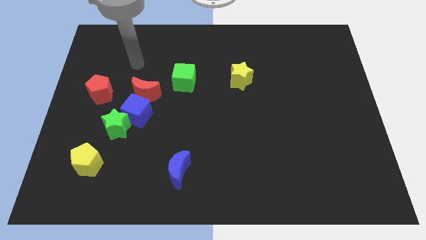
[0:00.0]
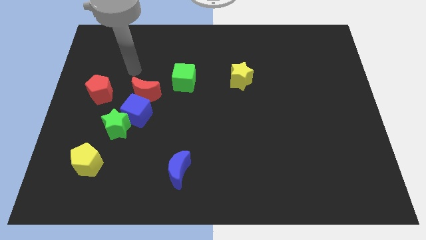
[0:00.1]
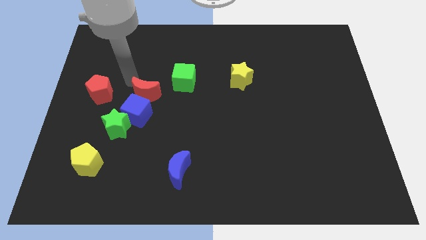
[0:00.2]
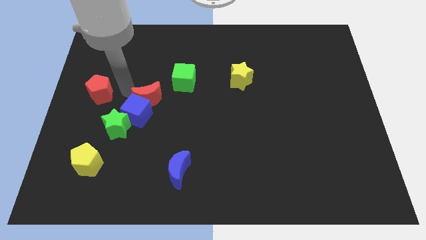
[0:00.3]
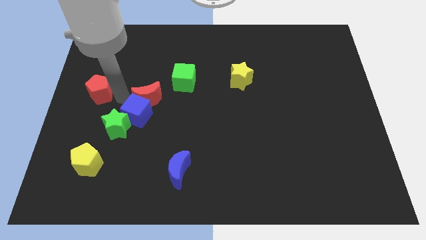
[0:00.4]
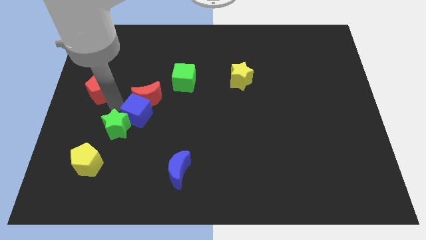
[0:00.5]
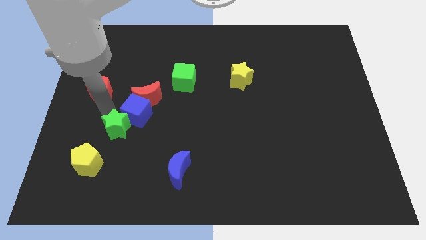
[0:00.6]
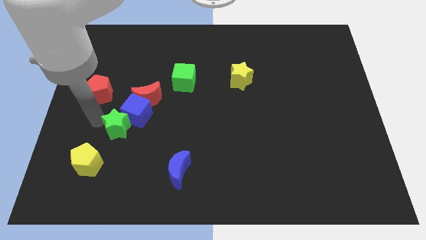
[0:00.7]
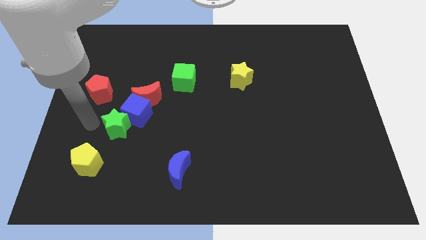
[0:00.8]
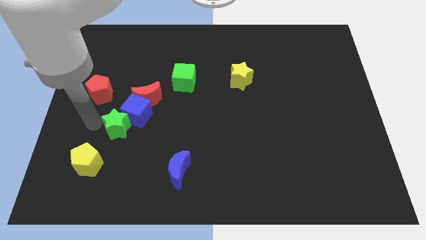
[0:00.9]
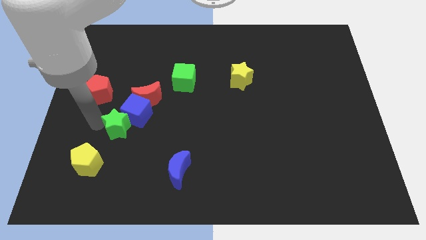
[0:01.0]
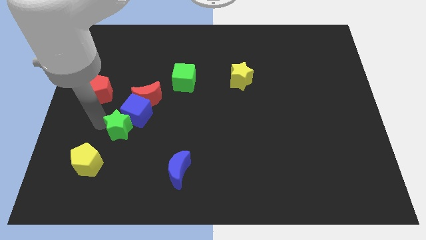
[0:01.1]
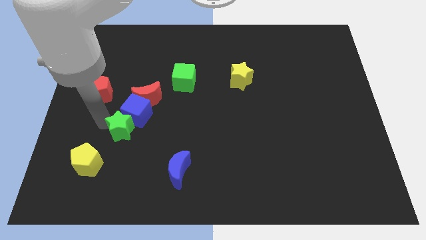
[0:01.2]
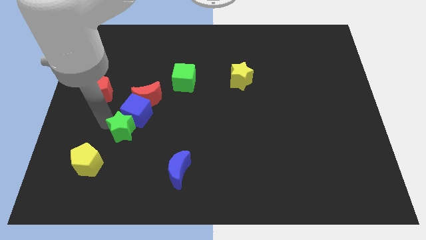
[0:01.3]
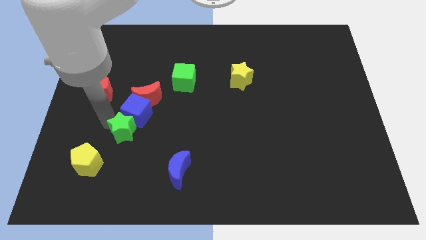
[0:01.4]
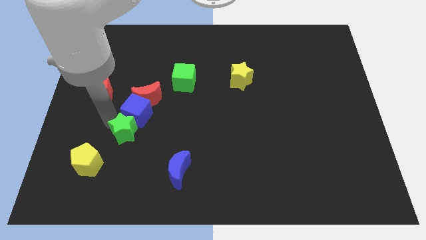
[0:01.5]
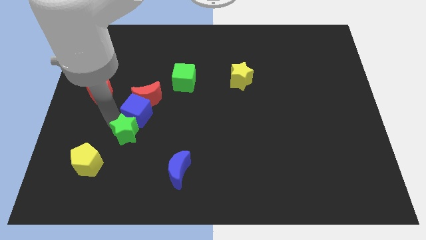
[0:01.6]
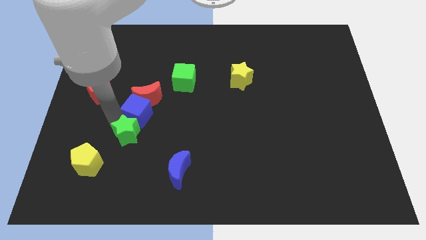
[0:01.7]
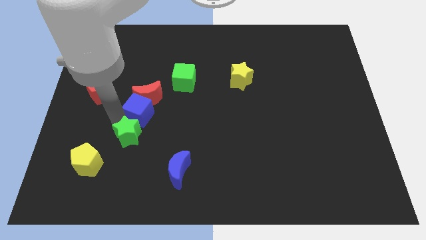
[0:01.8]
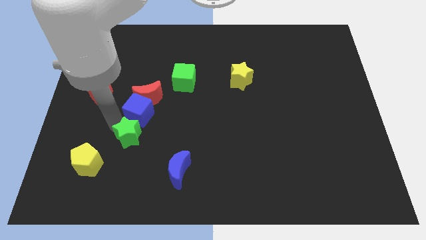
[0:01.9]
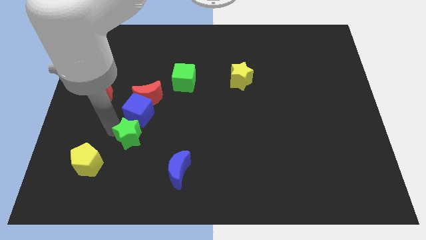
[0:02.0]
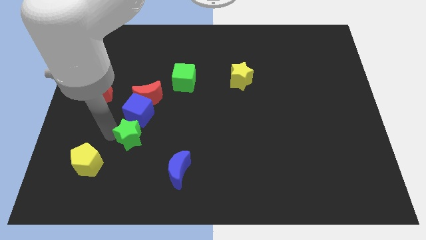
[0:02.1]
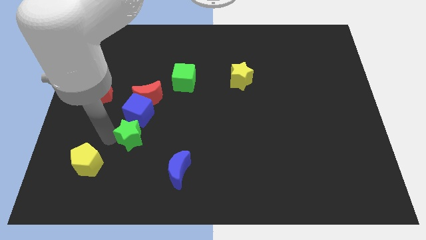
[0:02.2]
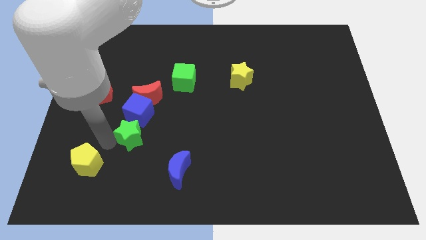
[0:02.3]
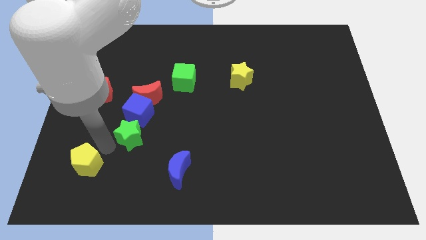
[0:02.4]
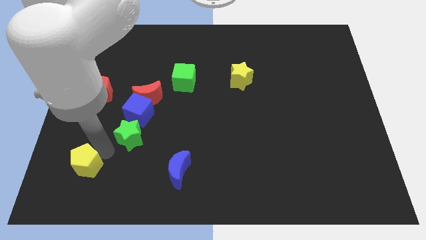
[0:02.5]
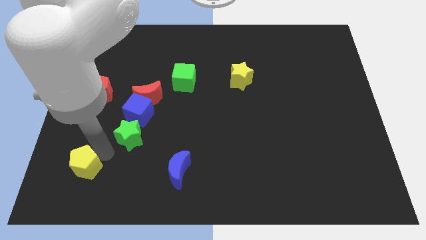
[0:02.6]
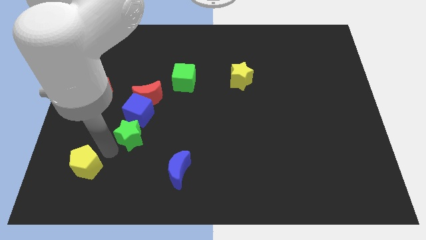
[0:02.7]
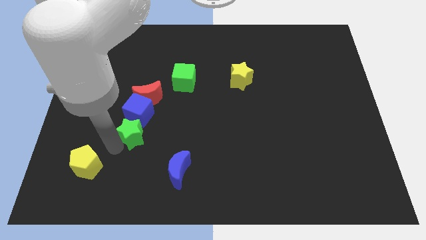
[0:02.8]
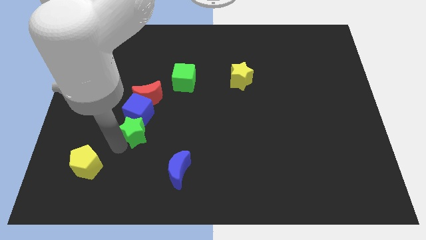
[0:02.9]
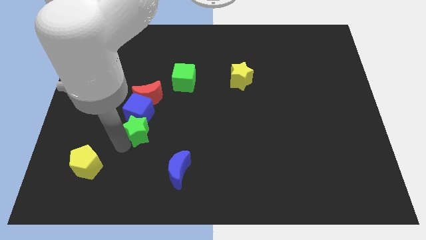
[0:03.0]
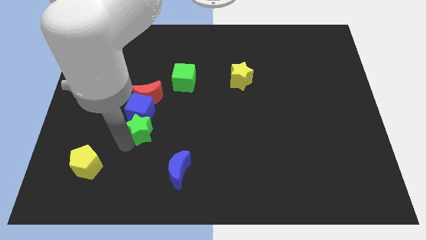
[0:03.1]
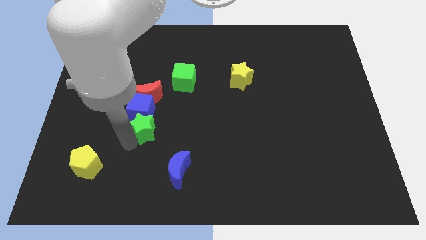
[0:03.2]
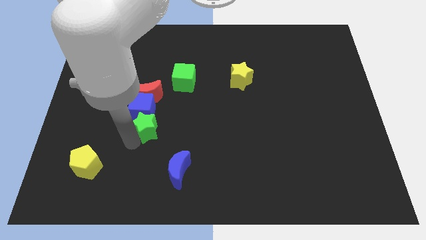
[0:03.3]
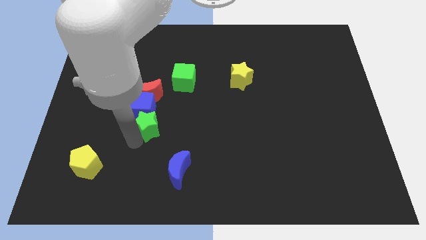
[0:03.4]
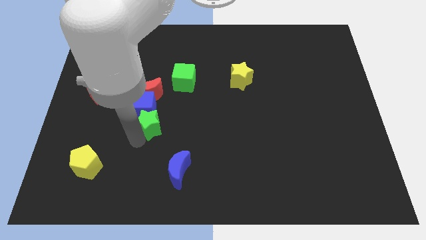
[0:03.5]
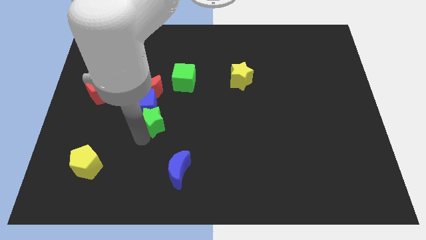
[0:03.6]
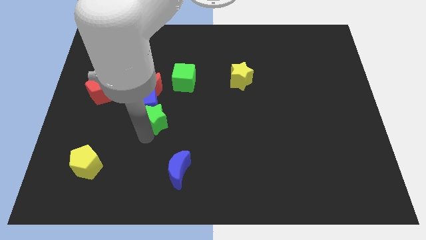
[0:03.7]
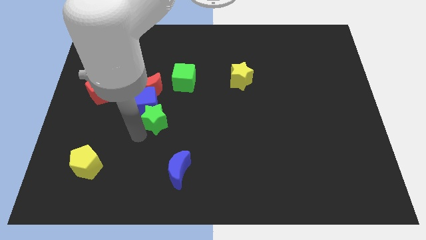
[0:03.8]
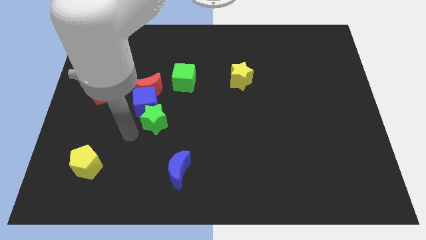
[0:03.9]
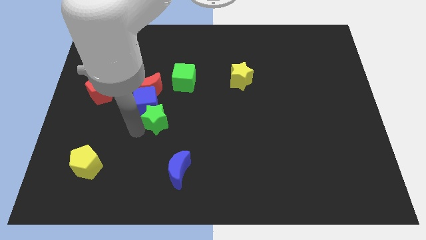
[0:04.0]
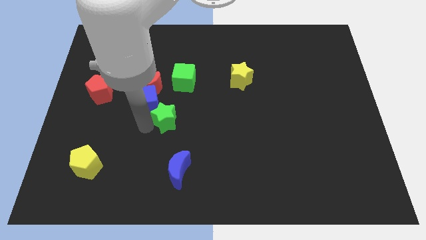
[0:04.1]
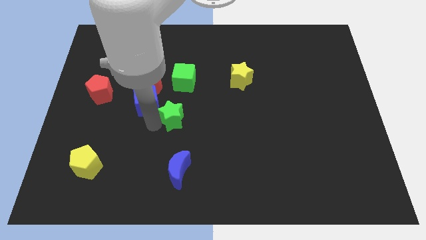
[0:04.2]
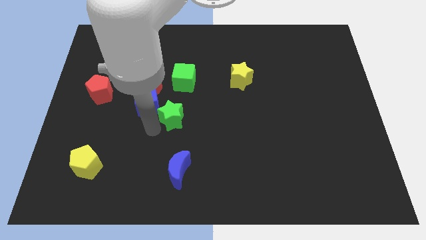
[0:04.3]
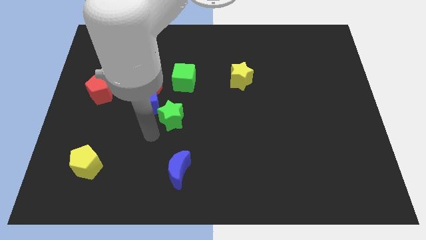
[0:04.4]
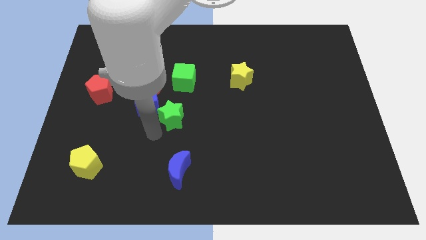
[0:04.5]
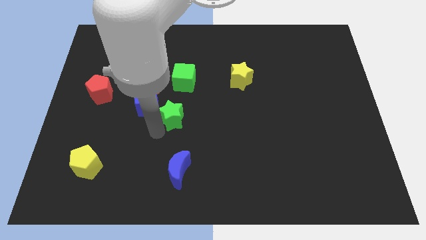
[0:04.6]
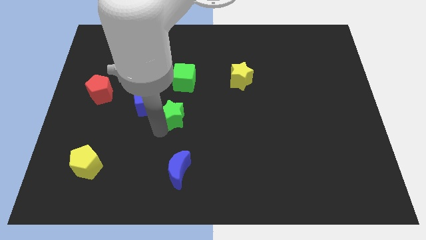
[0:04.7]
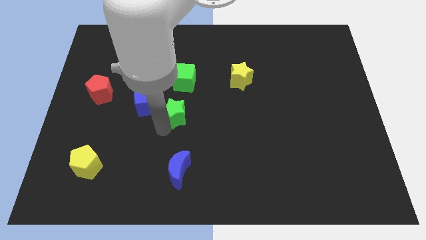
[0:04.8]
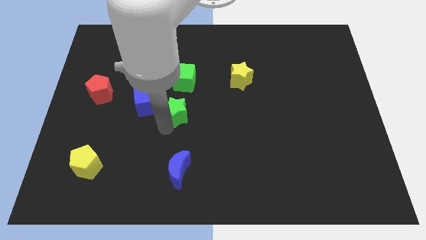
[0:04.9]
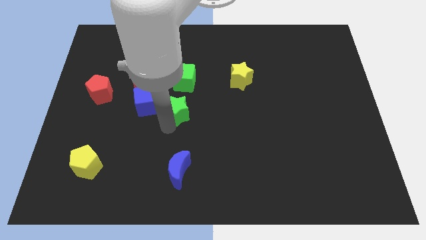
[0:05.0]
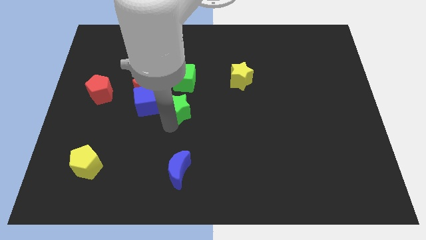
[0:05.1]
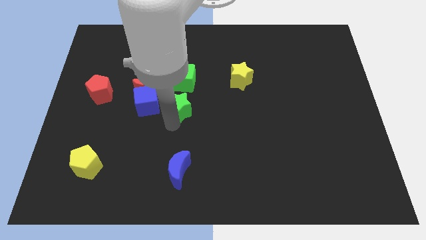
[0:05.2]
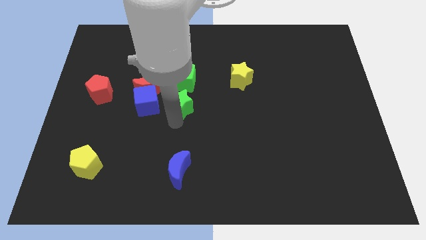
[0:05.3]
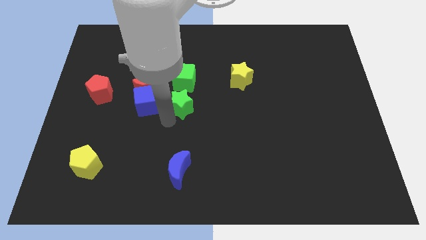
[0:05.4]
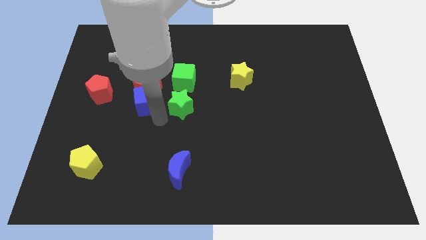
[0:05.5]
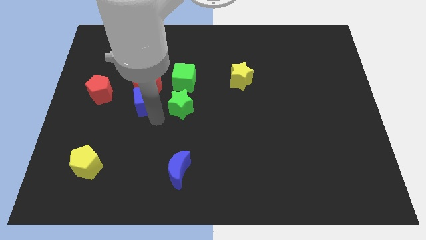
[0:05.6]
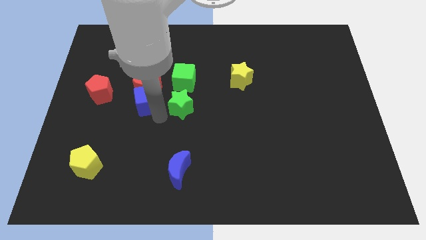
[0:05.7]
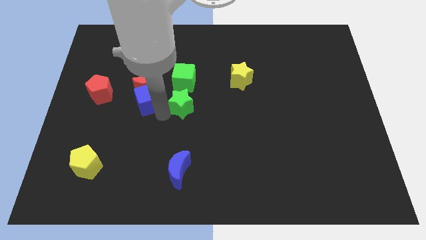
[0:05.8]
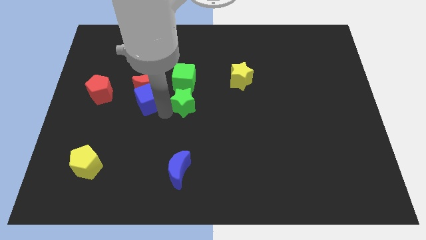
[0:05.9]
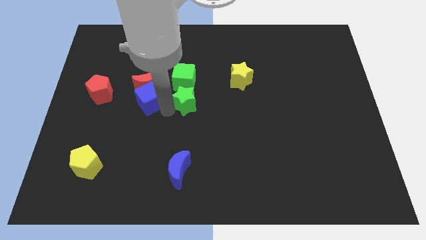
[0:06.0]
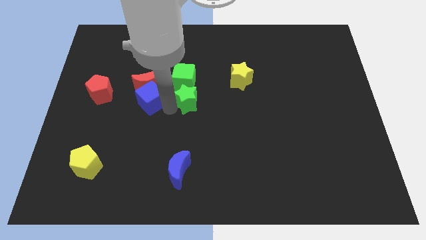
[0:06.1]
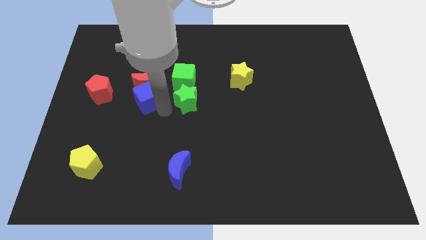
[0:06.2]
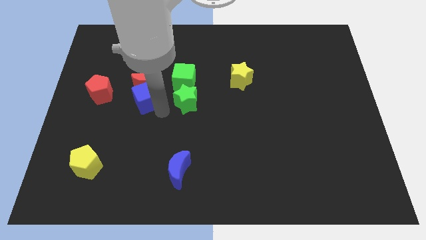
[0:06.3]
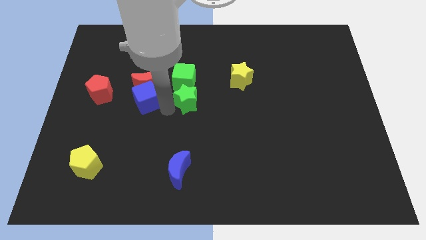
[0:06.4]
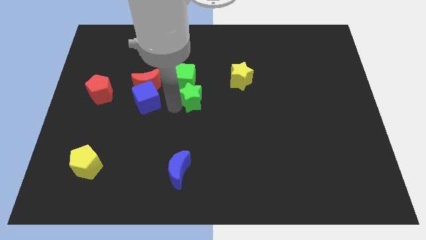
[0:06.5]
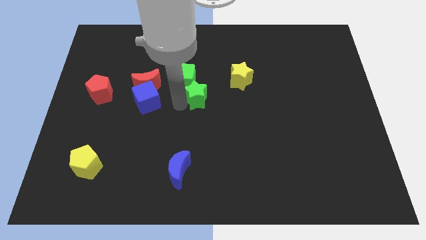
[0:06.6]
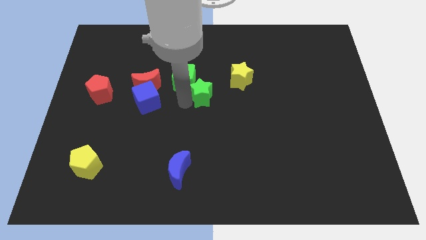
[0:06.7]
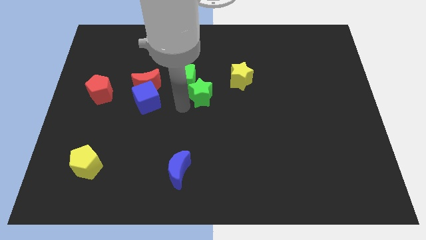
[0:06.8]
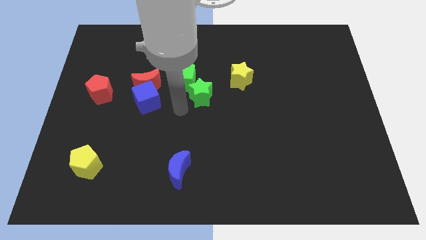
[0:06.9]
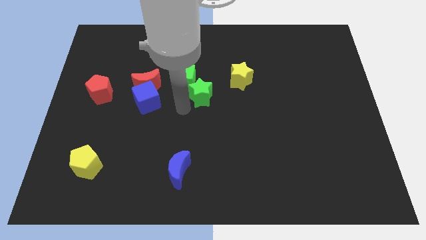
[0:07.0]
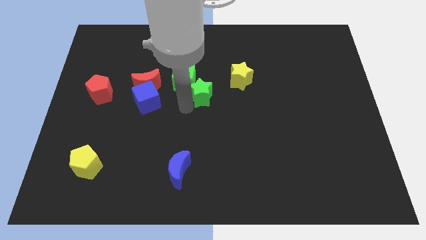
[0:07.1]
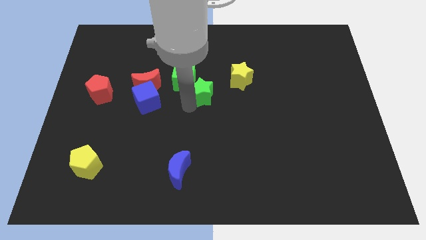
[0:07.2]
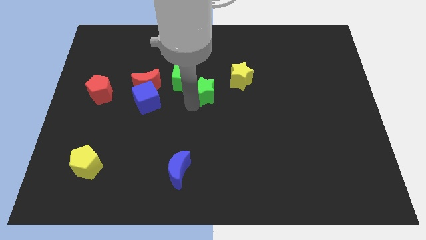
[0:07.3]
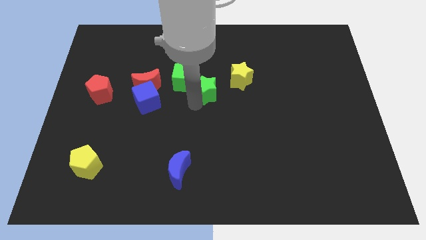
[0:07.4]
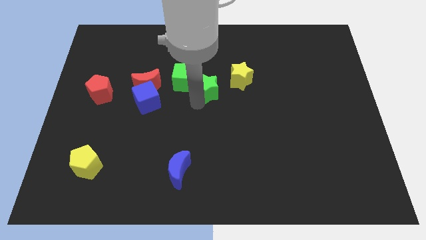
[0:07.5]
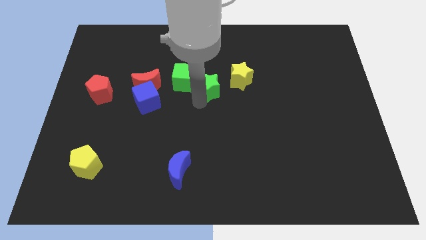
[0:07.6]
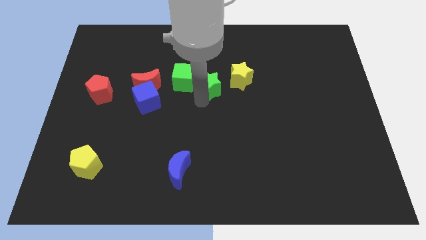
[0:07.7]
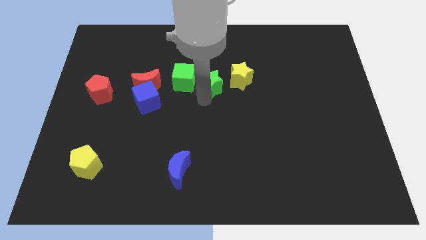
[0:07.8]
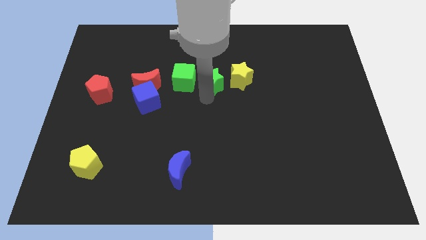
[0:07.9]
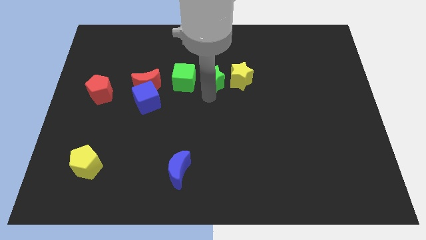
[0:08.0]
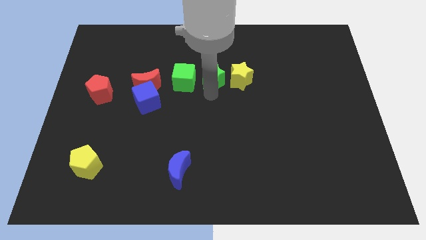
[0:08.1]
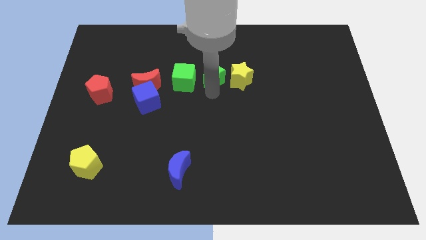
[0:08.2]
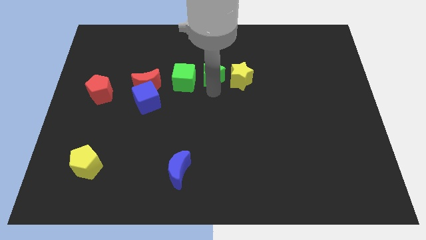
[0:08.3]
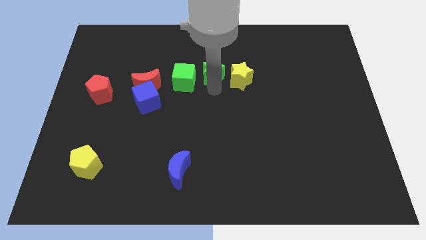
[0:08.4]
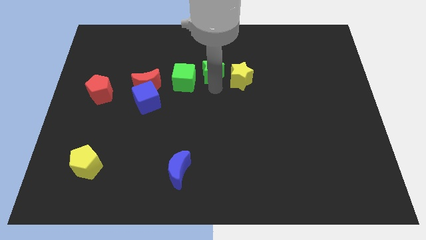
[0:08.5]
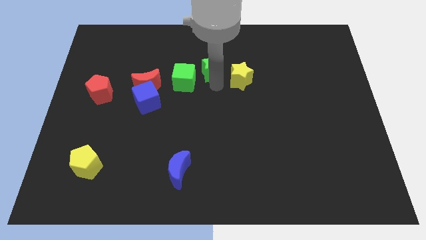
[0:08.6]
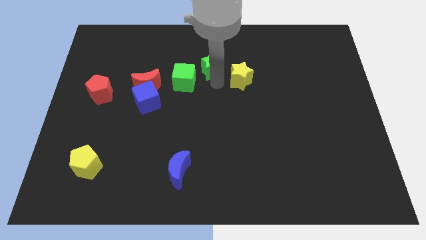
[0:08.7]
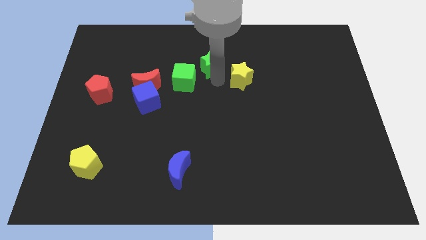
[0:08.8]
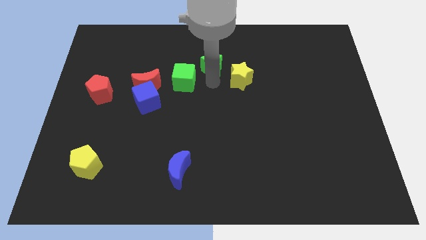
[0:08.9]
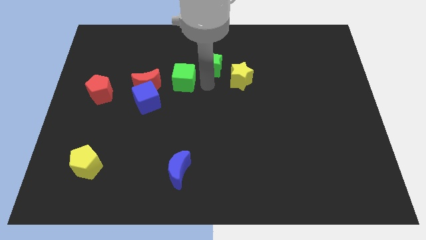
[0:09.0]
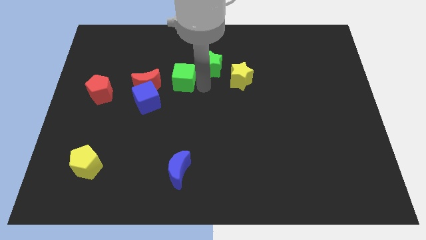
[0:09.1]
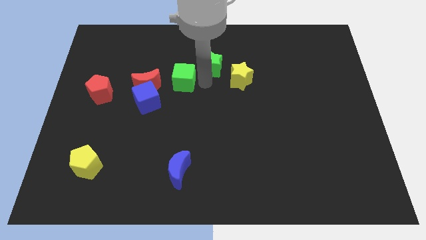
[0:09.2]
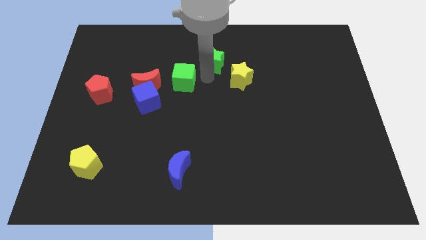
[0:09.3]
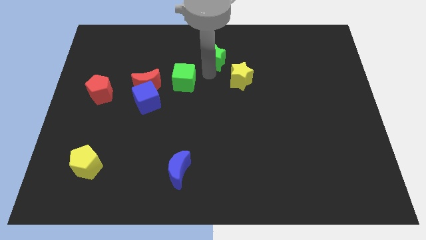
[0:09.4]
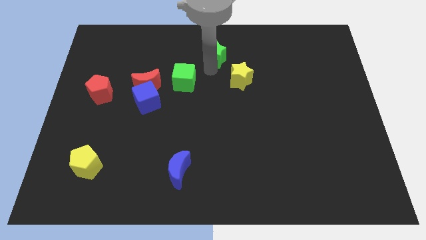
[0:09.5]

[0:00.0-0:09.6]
slide the green star to the top
